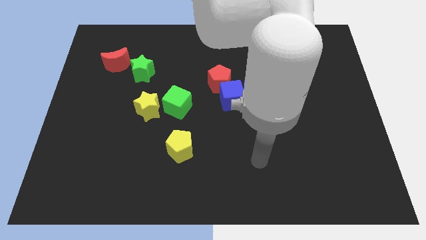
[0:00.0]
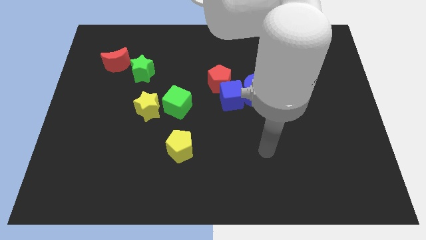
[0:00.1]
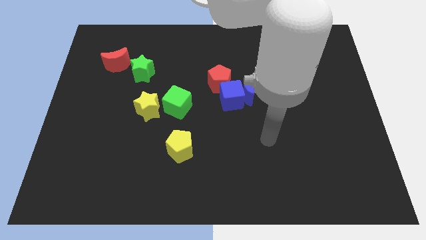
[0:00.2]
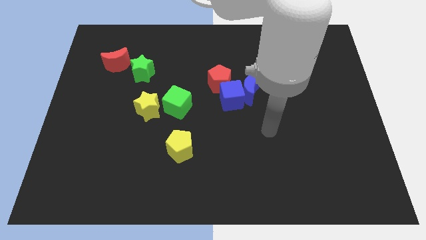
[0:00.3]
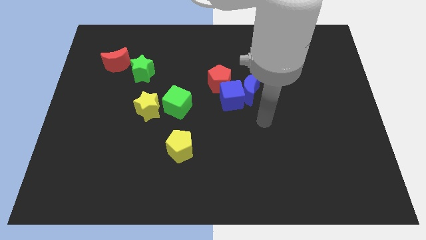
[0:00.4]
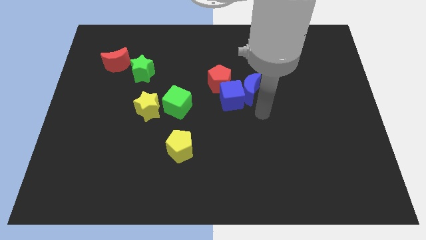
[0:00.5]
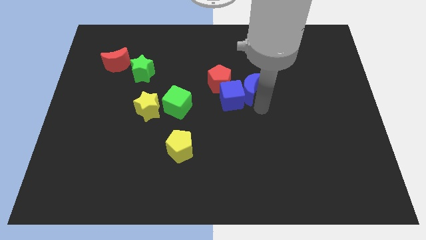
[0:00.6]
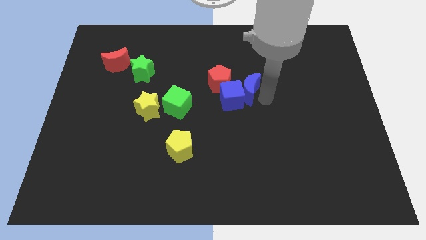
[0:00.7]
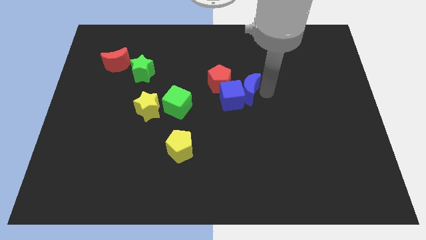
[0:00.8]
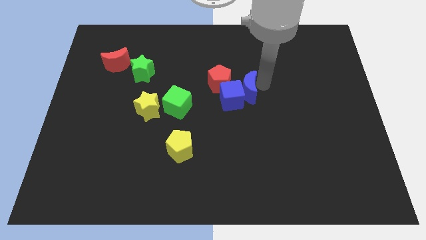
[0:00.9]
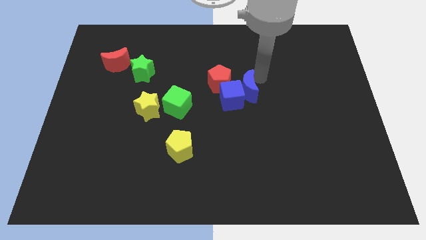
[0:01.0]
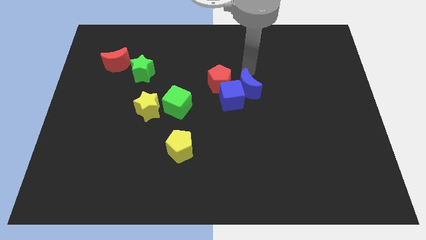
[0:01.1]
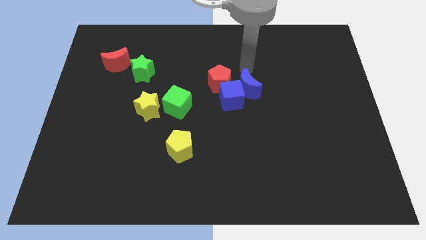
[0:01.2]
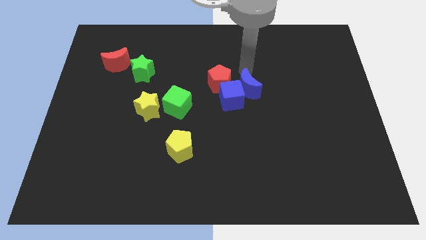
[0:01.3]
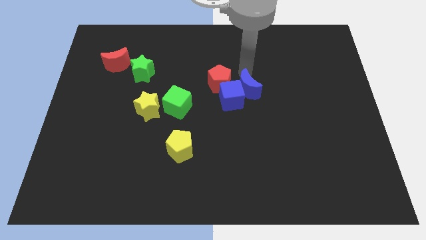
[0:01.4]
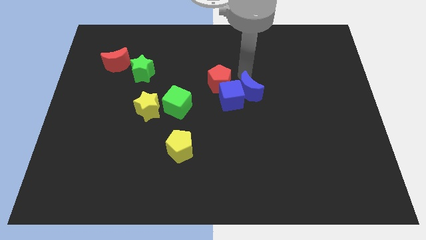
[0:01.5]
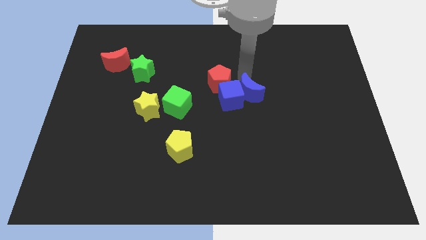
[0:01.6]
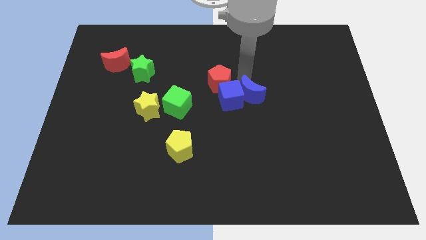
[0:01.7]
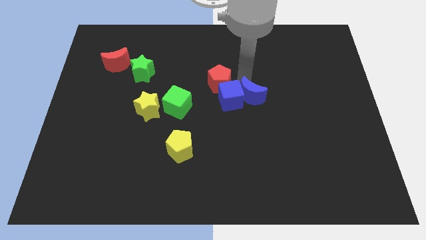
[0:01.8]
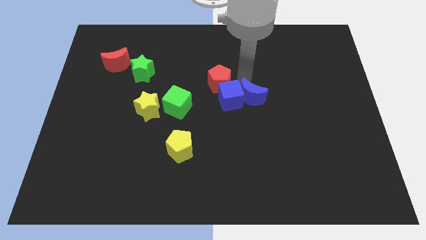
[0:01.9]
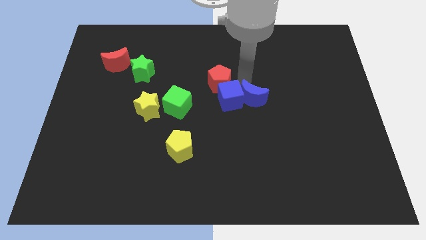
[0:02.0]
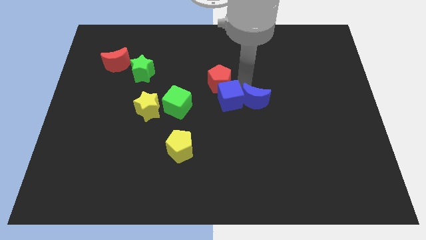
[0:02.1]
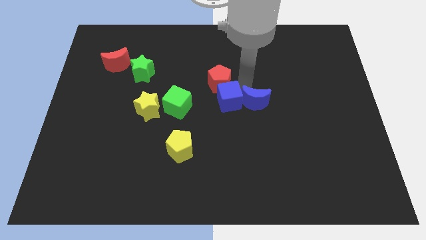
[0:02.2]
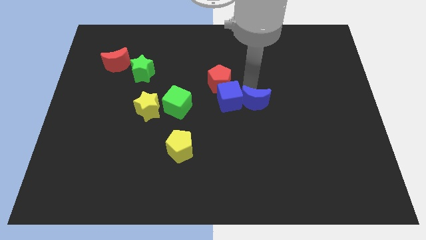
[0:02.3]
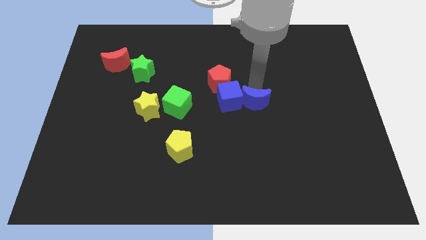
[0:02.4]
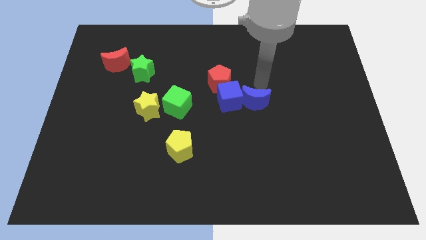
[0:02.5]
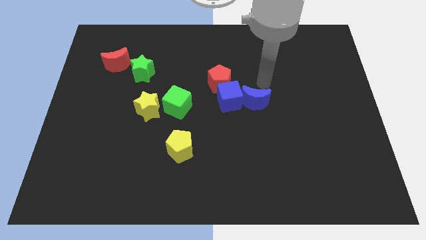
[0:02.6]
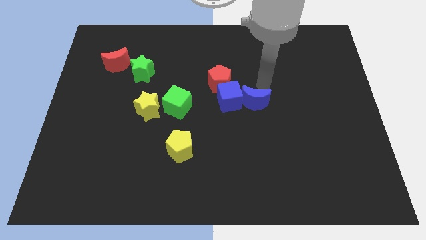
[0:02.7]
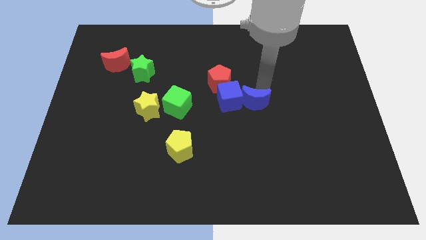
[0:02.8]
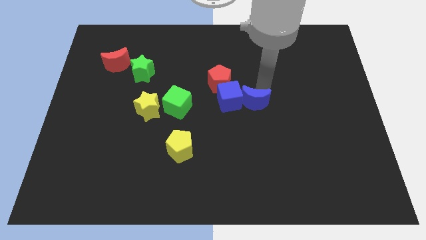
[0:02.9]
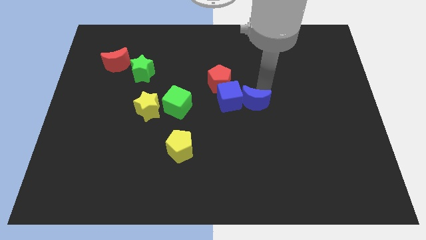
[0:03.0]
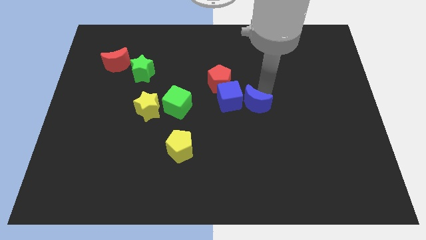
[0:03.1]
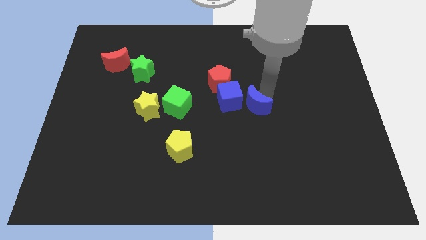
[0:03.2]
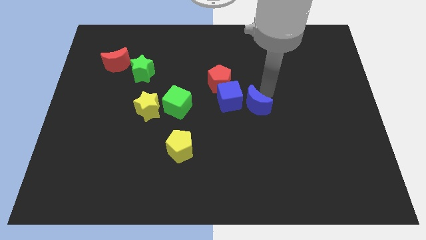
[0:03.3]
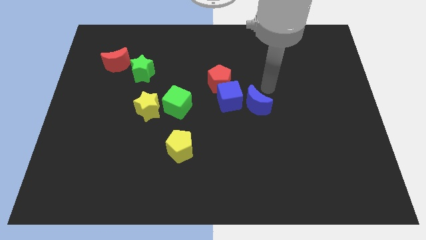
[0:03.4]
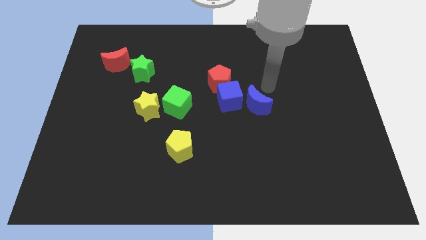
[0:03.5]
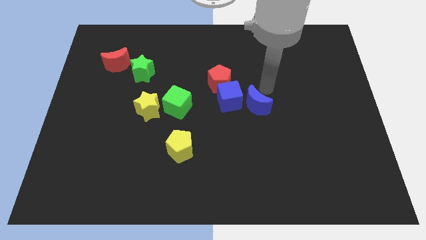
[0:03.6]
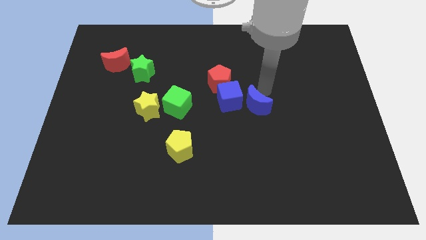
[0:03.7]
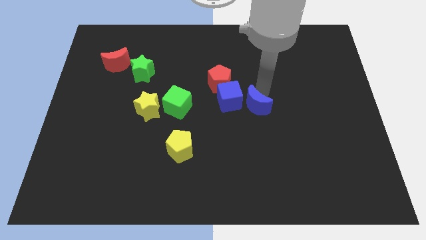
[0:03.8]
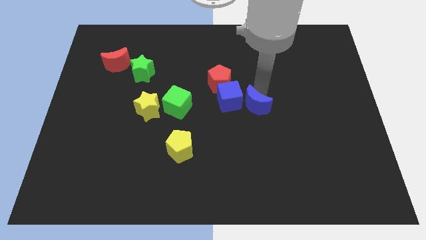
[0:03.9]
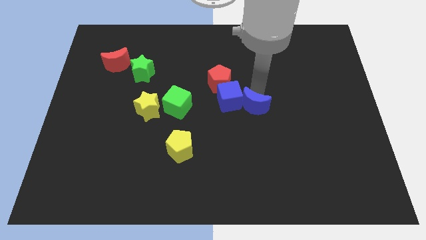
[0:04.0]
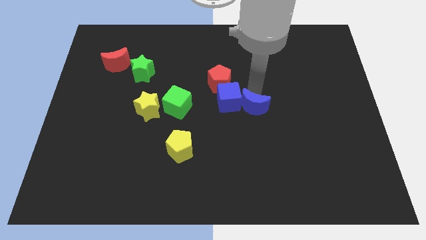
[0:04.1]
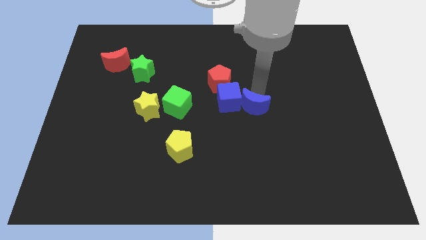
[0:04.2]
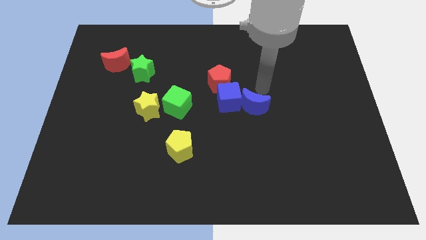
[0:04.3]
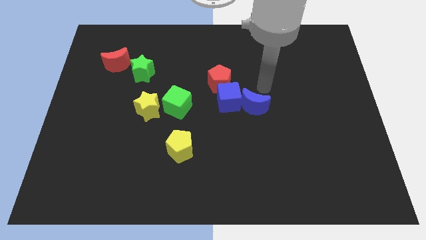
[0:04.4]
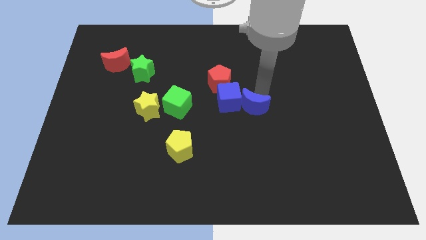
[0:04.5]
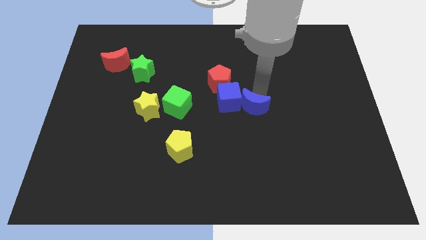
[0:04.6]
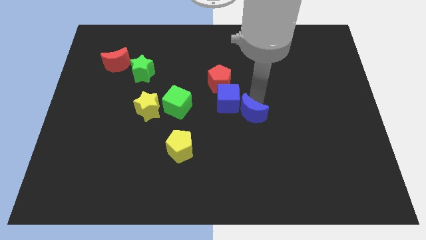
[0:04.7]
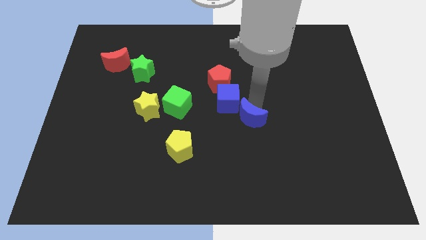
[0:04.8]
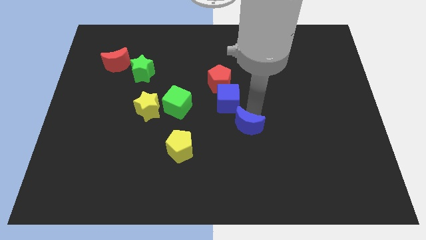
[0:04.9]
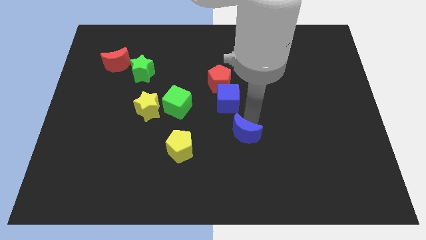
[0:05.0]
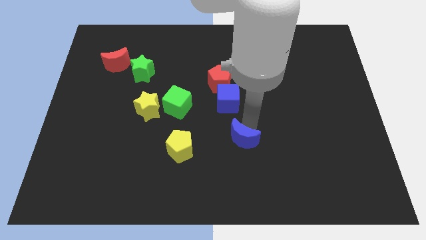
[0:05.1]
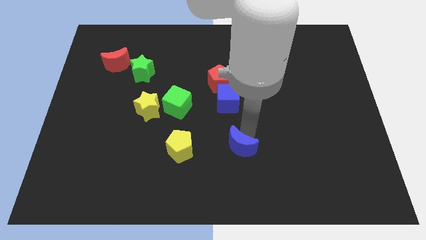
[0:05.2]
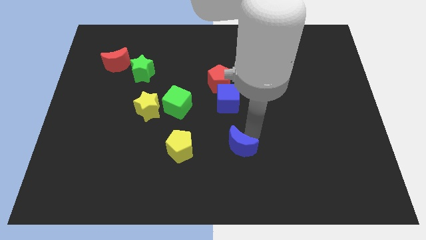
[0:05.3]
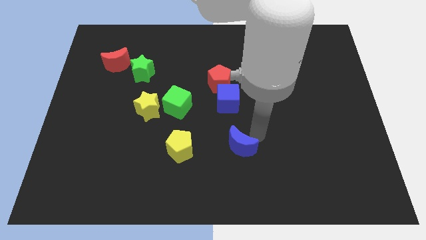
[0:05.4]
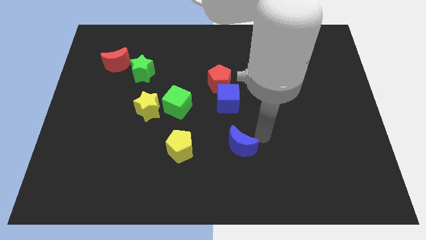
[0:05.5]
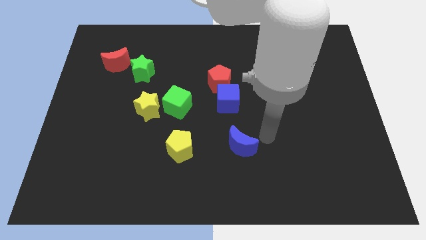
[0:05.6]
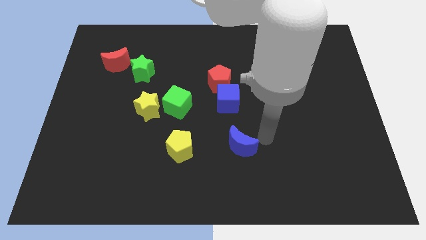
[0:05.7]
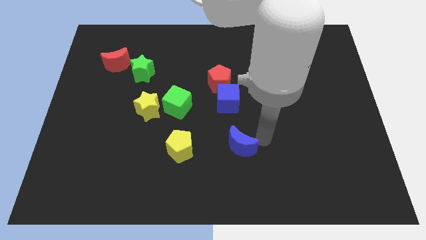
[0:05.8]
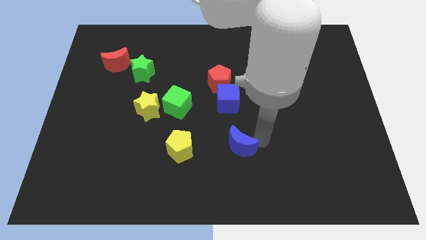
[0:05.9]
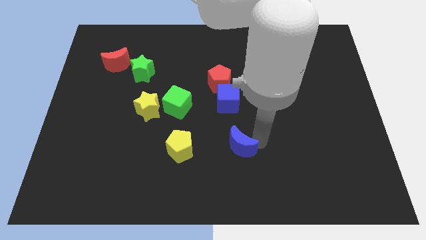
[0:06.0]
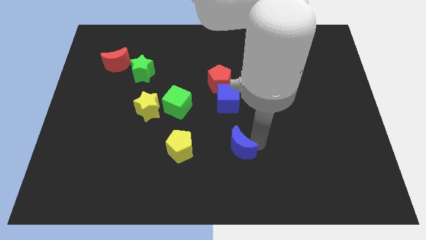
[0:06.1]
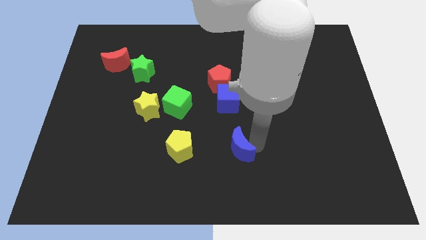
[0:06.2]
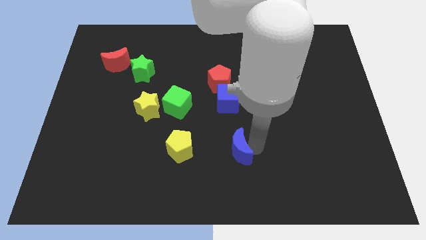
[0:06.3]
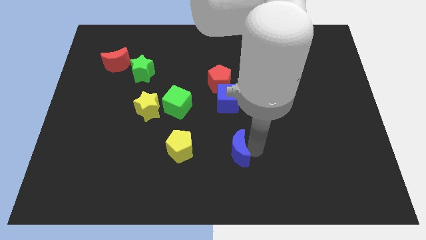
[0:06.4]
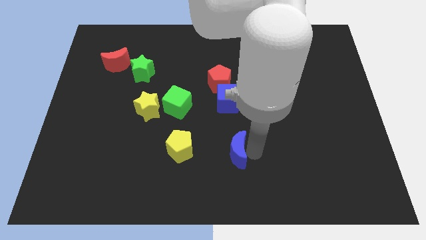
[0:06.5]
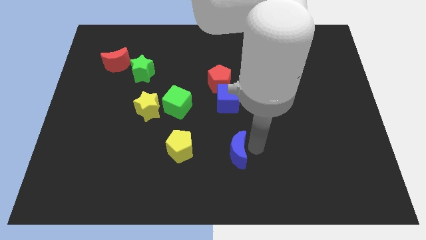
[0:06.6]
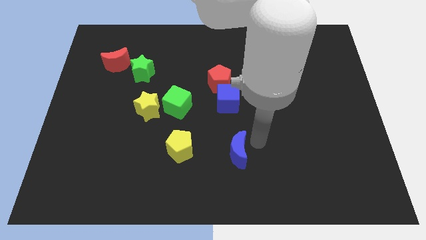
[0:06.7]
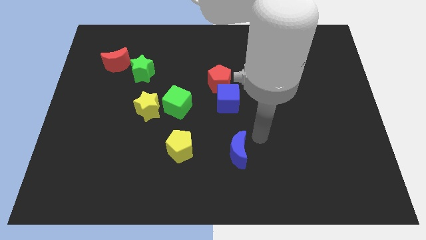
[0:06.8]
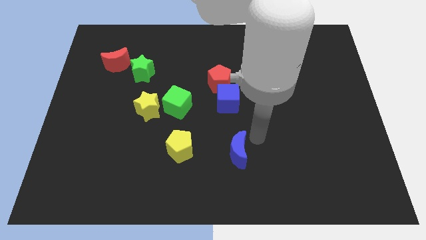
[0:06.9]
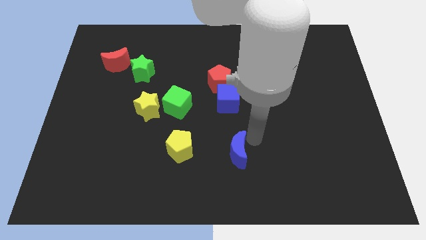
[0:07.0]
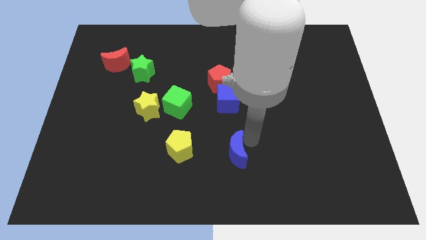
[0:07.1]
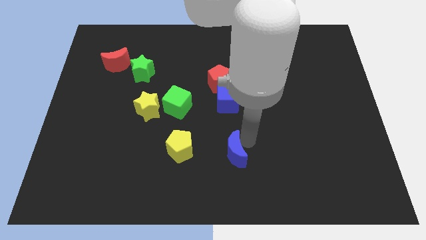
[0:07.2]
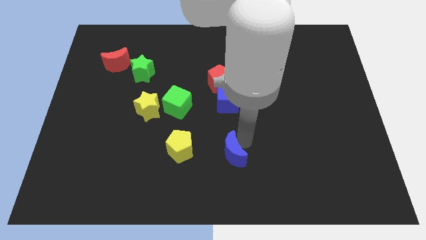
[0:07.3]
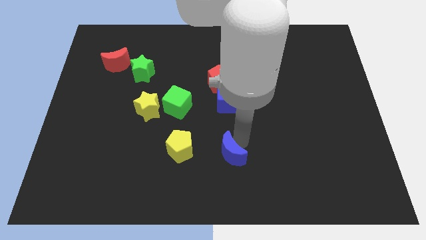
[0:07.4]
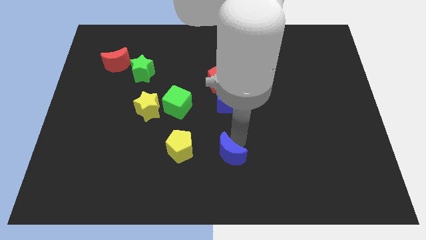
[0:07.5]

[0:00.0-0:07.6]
put the blue moon to the bottom side
